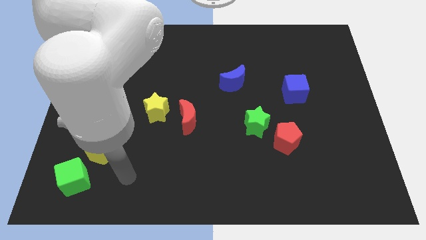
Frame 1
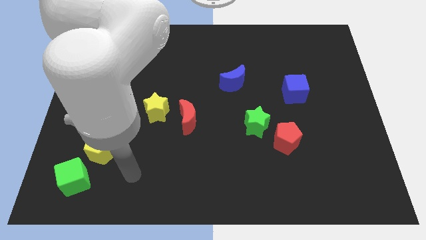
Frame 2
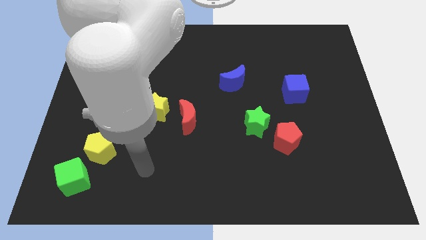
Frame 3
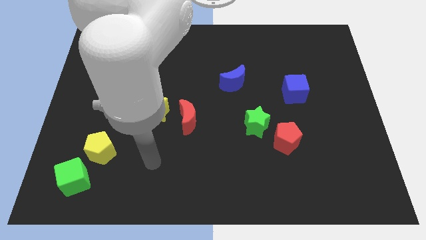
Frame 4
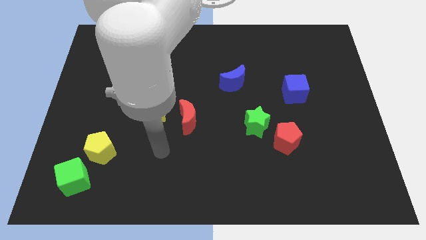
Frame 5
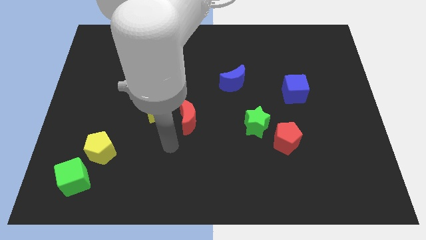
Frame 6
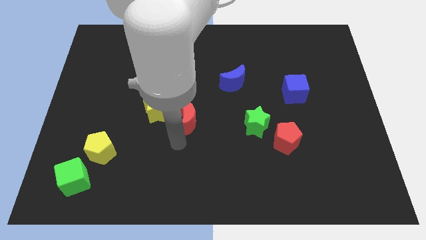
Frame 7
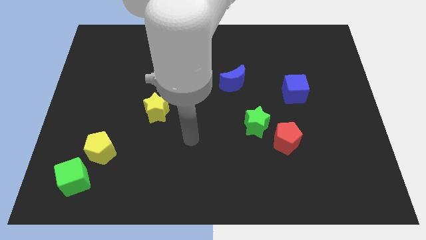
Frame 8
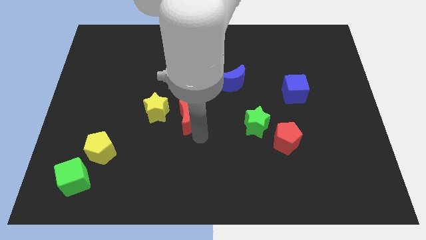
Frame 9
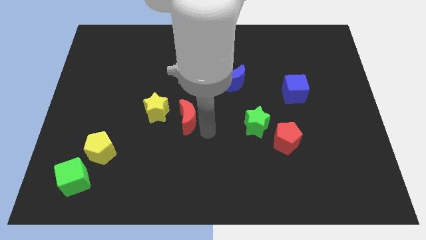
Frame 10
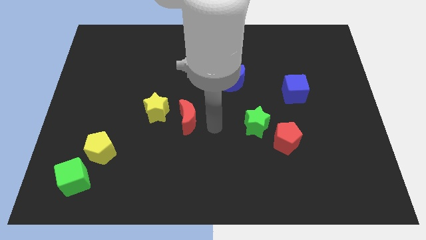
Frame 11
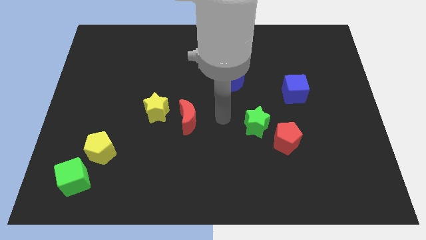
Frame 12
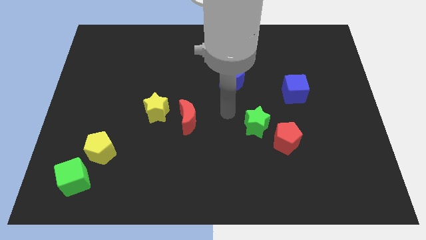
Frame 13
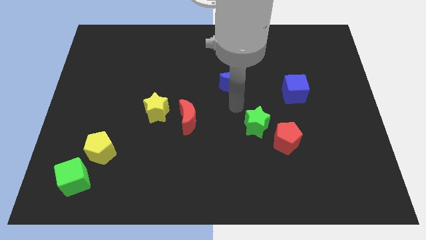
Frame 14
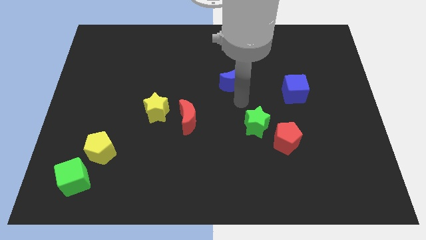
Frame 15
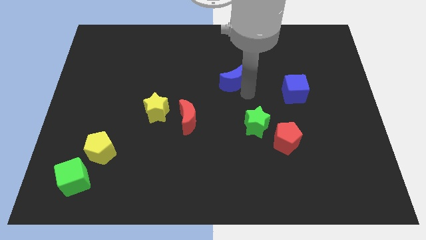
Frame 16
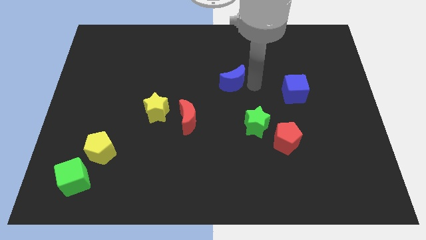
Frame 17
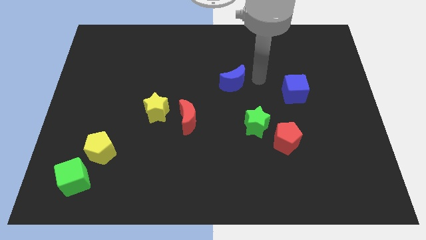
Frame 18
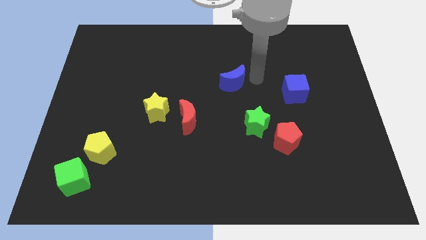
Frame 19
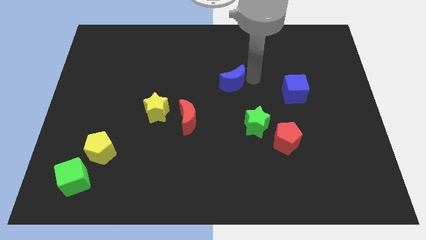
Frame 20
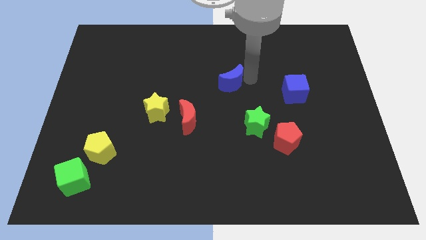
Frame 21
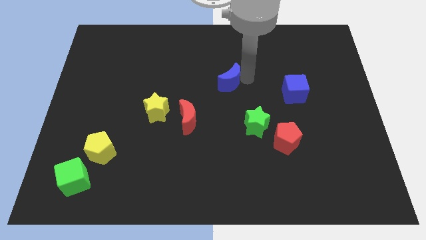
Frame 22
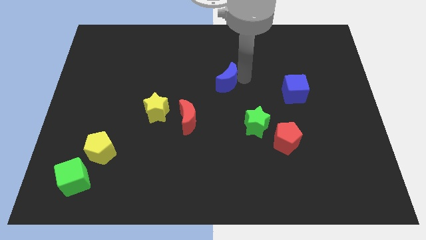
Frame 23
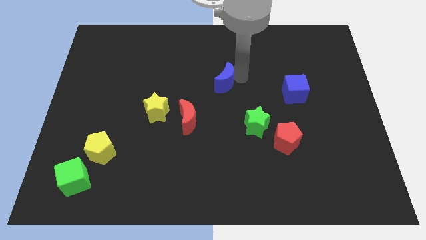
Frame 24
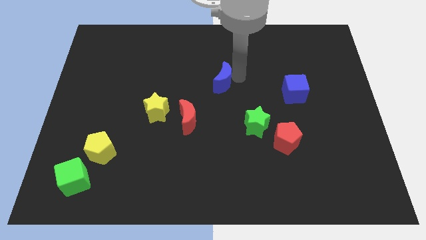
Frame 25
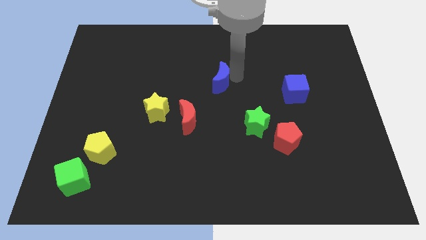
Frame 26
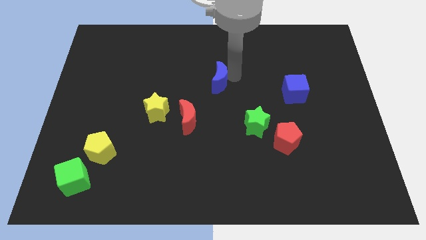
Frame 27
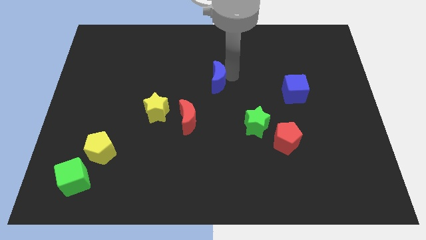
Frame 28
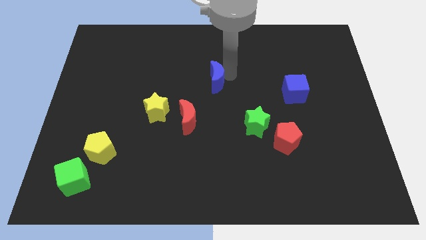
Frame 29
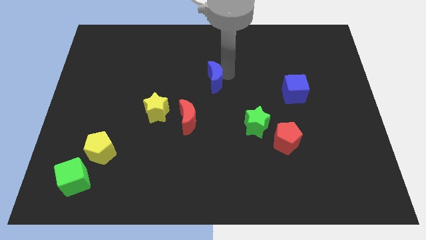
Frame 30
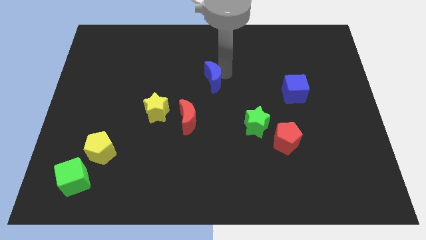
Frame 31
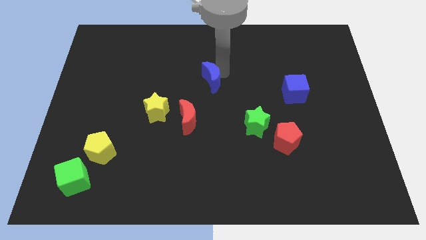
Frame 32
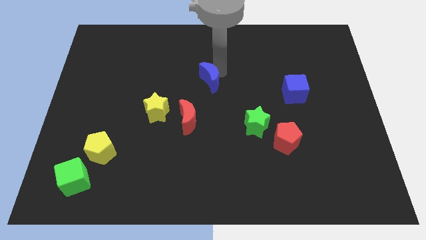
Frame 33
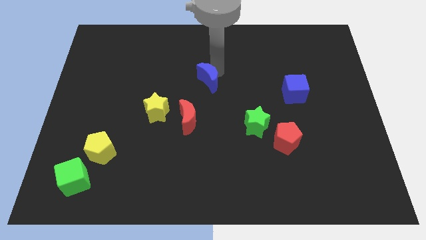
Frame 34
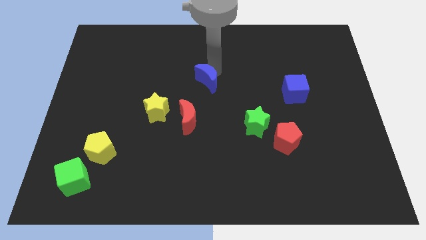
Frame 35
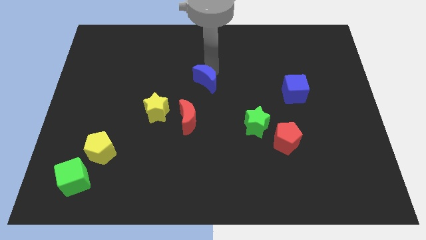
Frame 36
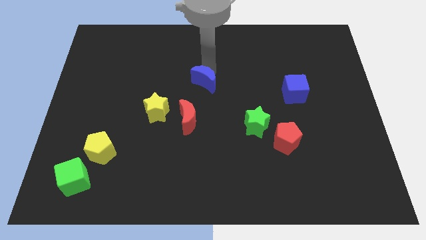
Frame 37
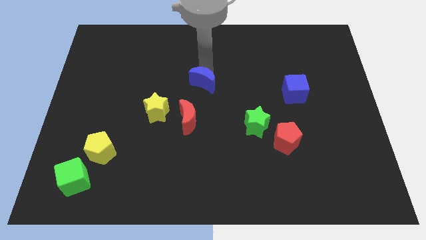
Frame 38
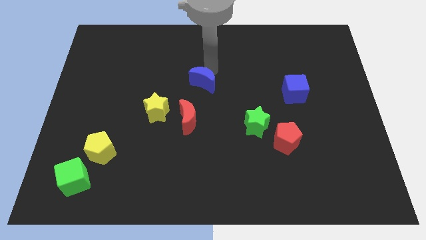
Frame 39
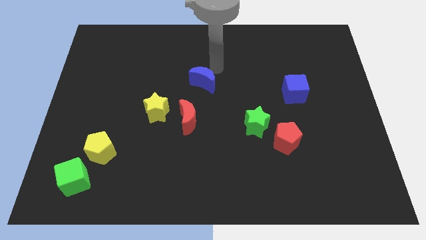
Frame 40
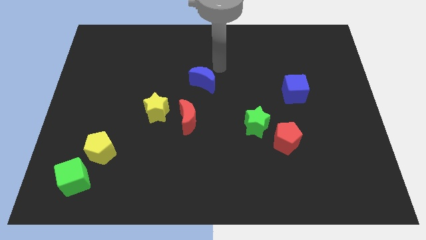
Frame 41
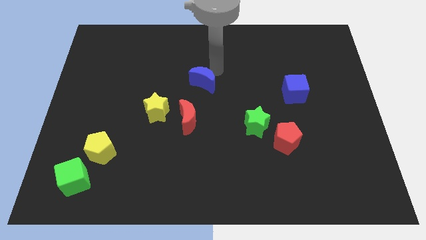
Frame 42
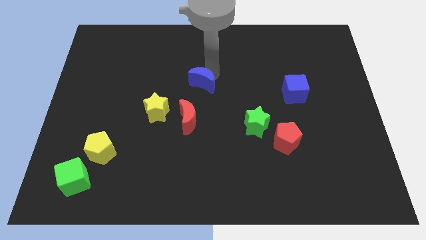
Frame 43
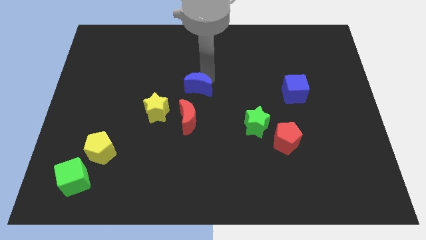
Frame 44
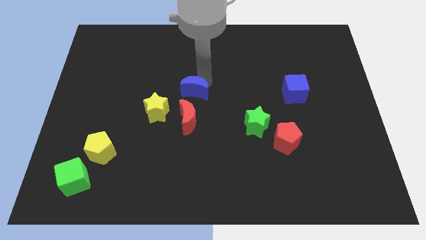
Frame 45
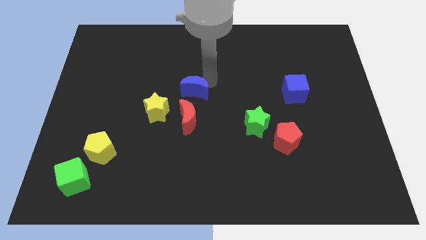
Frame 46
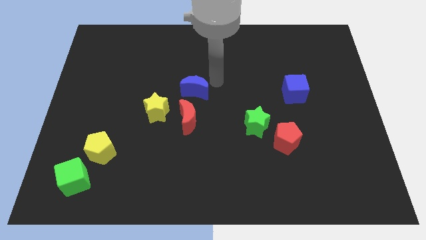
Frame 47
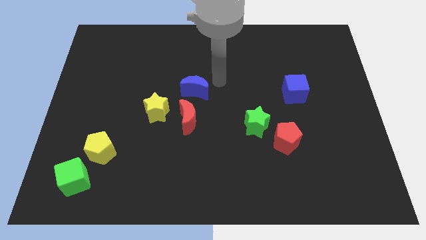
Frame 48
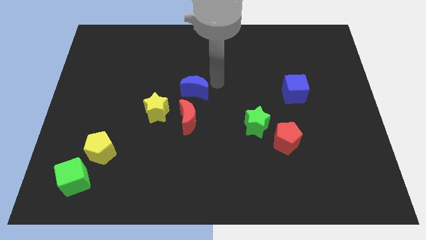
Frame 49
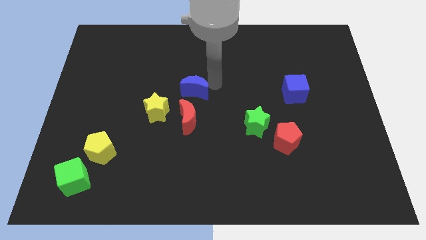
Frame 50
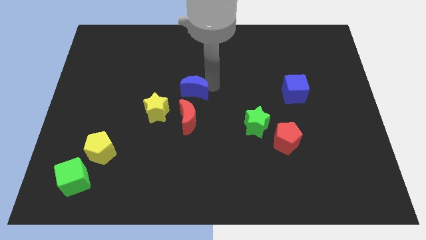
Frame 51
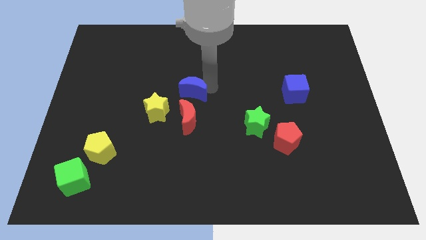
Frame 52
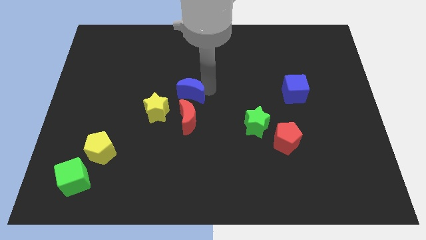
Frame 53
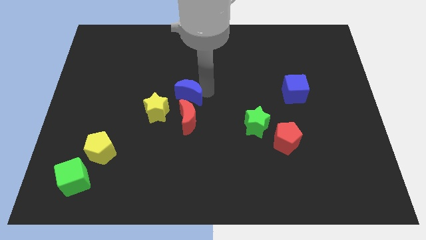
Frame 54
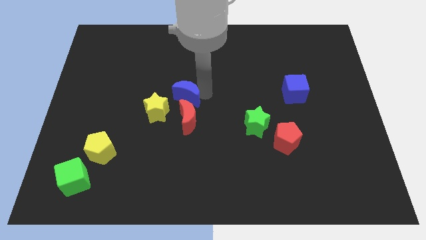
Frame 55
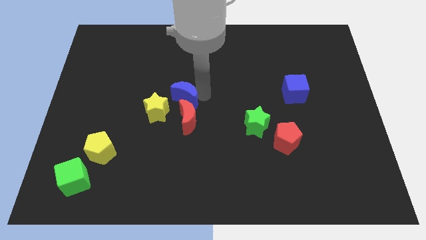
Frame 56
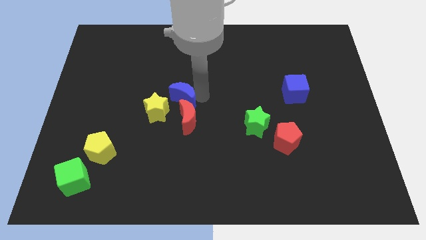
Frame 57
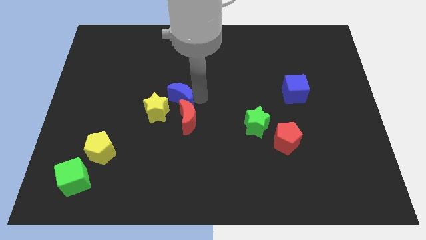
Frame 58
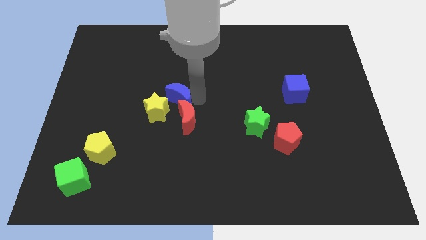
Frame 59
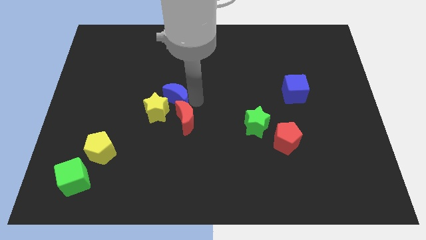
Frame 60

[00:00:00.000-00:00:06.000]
move the blue moon towards the yellow star
